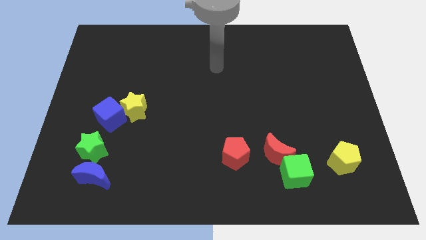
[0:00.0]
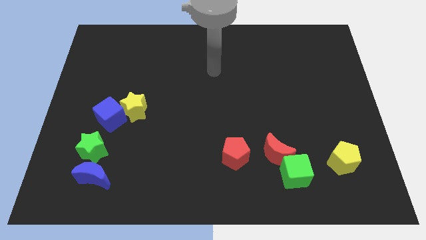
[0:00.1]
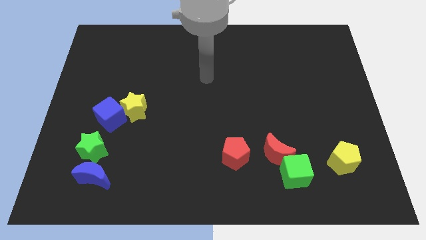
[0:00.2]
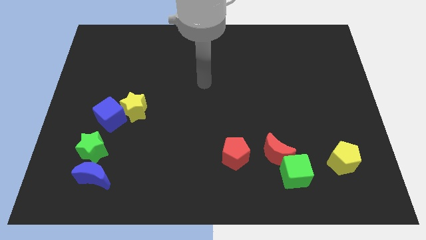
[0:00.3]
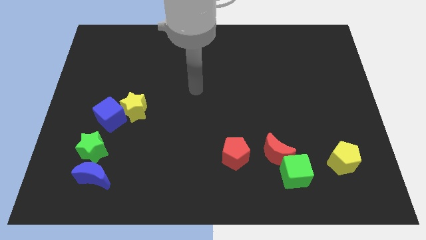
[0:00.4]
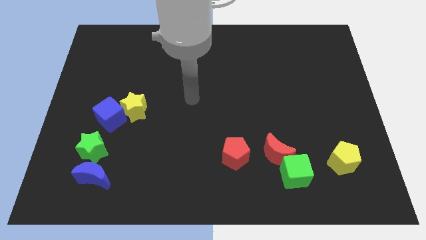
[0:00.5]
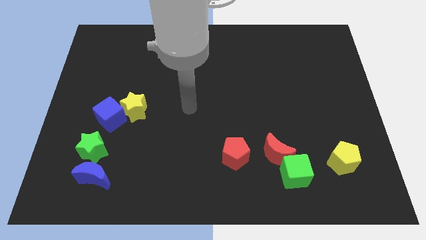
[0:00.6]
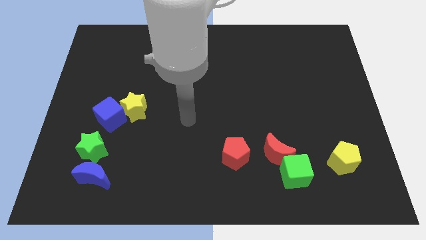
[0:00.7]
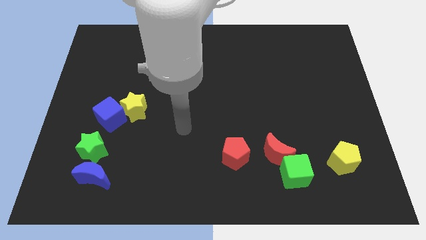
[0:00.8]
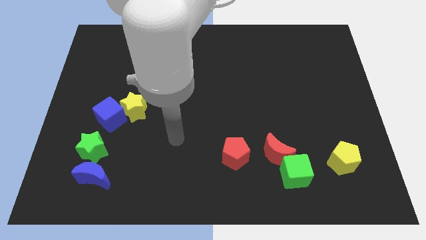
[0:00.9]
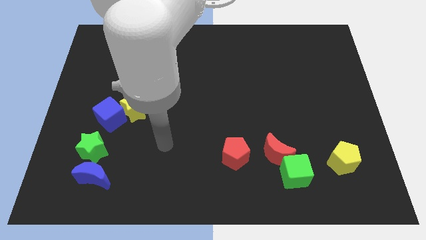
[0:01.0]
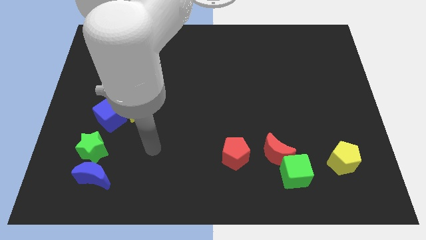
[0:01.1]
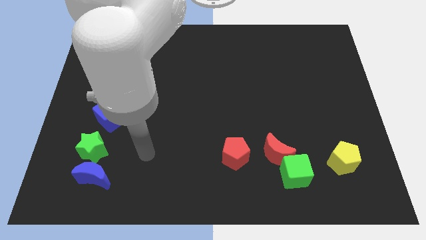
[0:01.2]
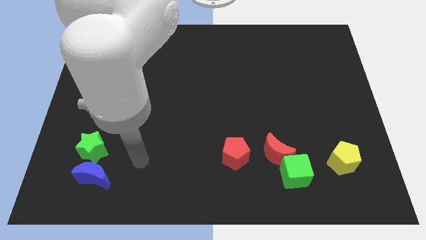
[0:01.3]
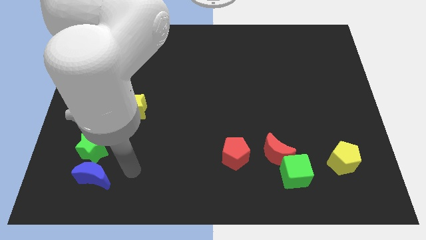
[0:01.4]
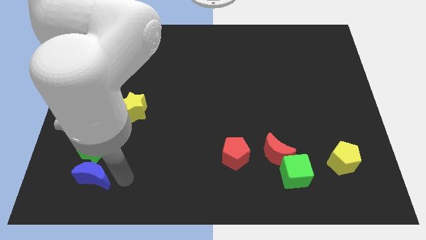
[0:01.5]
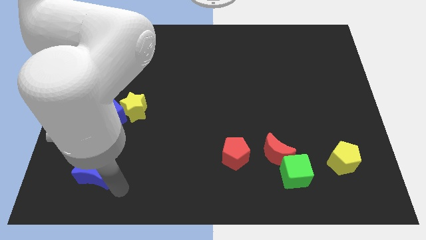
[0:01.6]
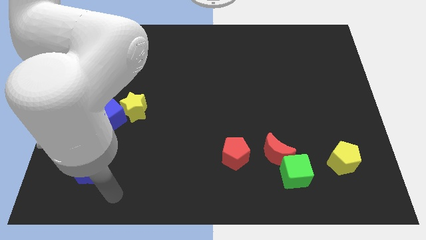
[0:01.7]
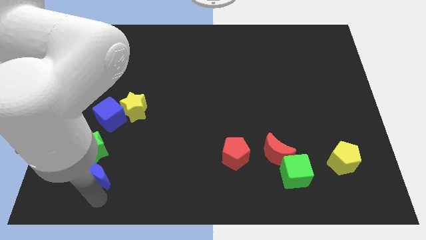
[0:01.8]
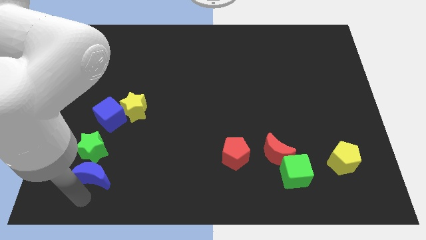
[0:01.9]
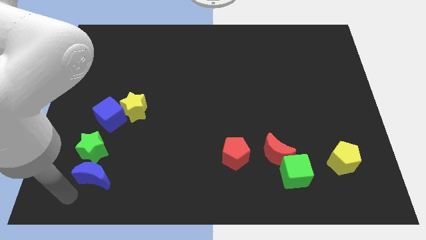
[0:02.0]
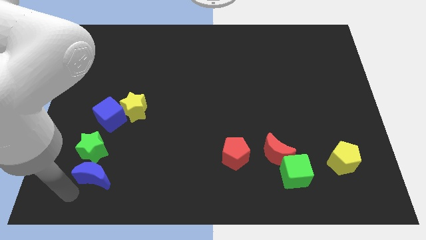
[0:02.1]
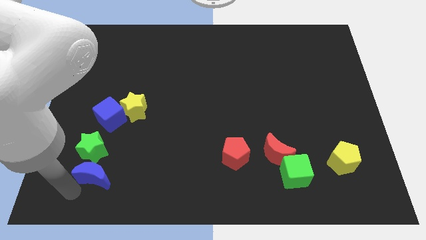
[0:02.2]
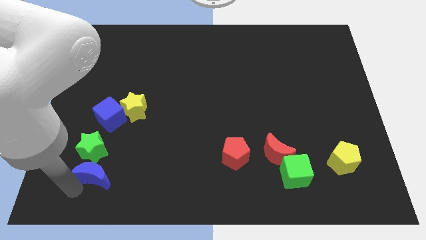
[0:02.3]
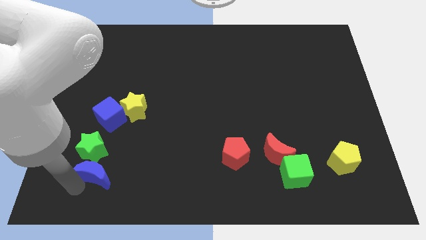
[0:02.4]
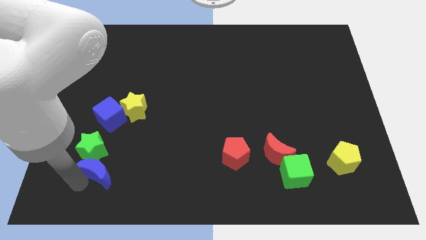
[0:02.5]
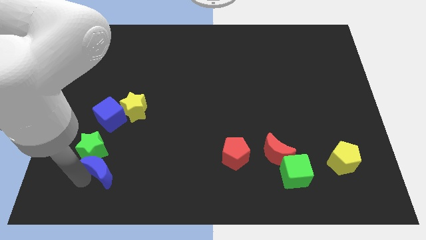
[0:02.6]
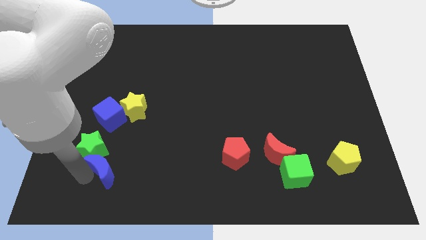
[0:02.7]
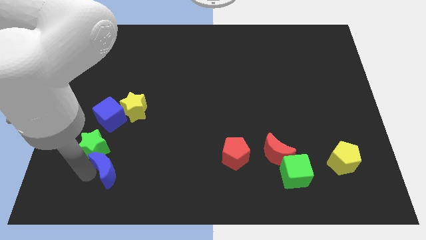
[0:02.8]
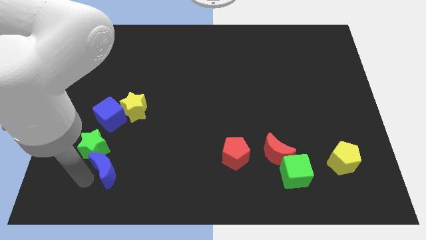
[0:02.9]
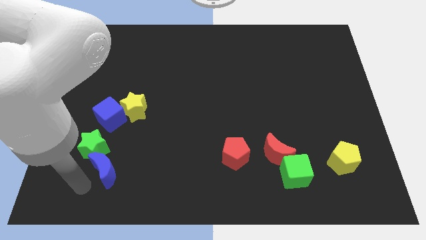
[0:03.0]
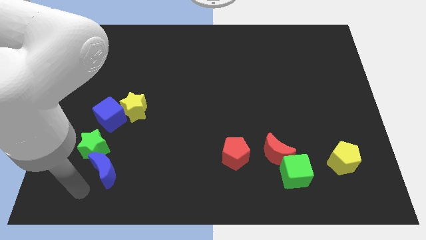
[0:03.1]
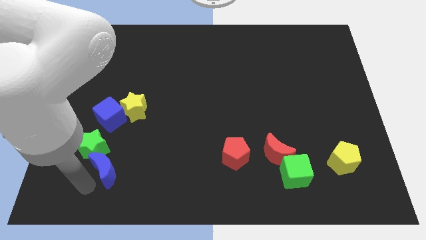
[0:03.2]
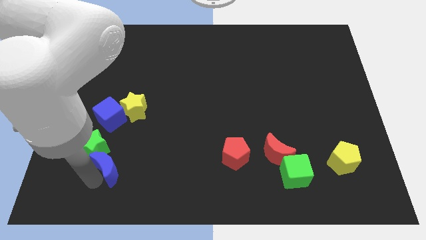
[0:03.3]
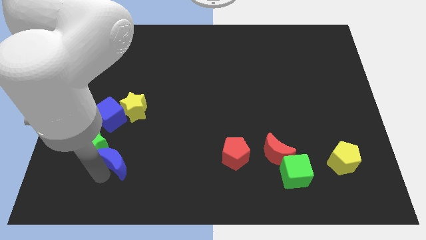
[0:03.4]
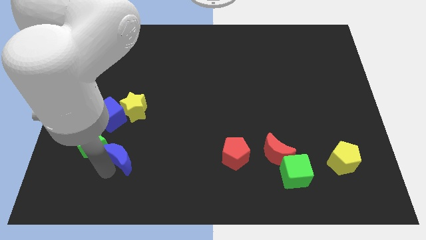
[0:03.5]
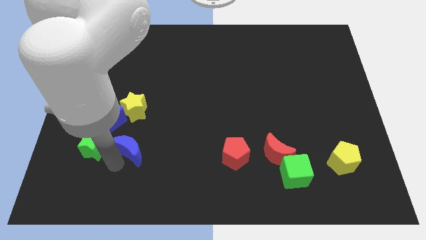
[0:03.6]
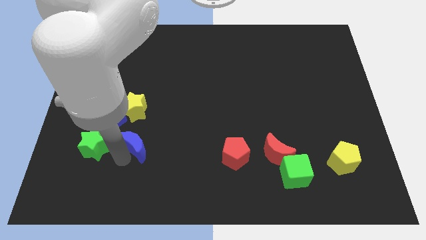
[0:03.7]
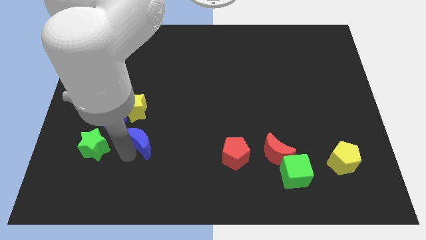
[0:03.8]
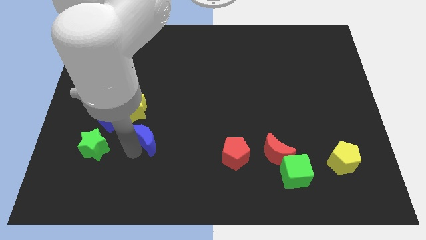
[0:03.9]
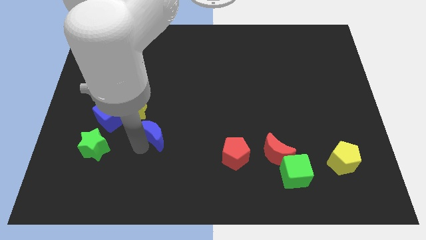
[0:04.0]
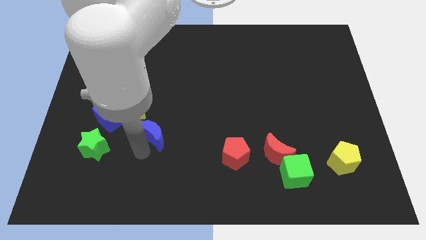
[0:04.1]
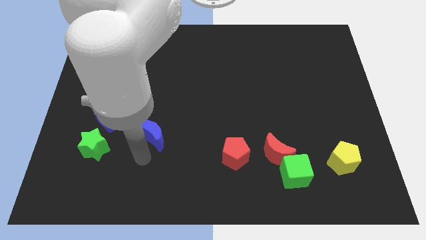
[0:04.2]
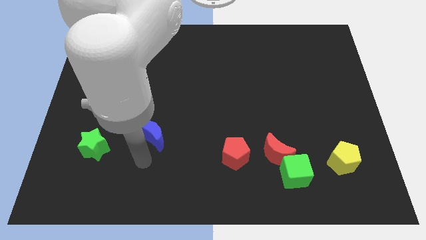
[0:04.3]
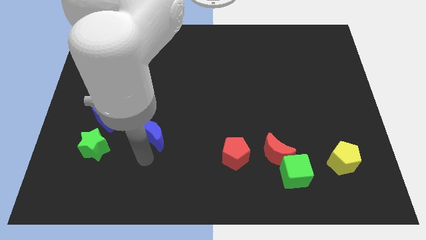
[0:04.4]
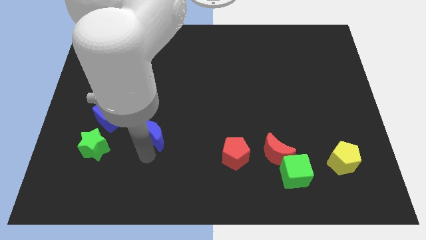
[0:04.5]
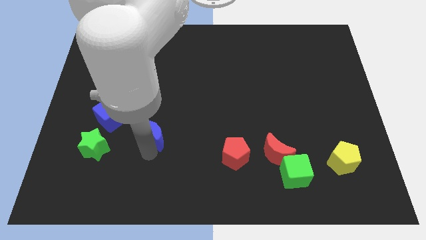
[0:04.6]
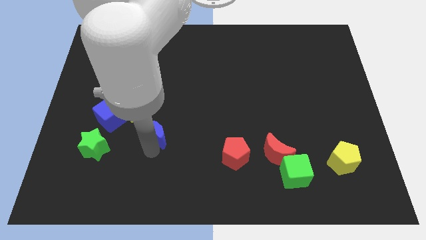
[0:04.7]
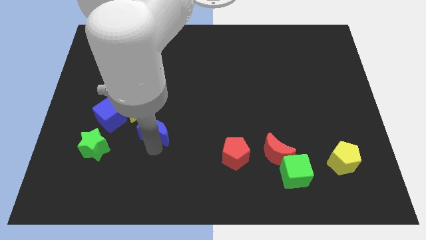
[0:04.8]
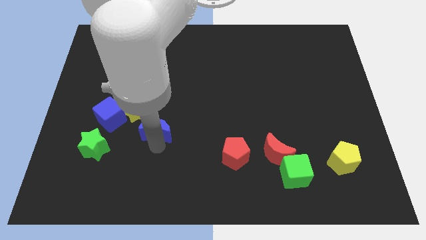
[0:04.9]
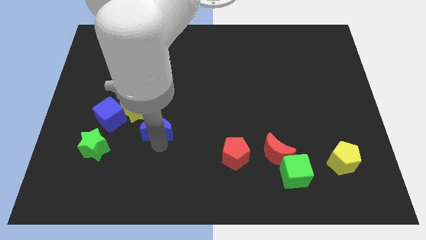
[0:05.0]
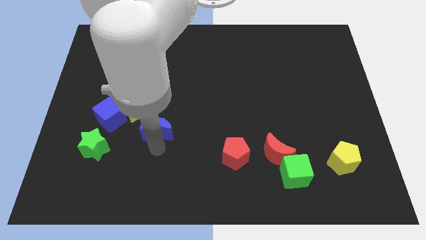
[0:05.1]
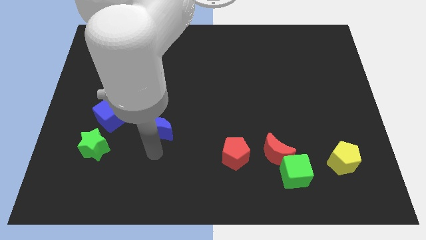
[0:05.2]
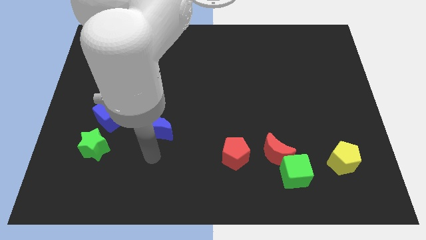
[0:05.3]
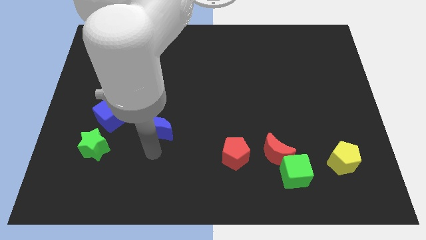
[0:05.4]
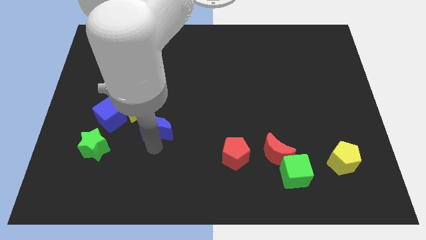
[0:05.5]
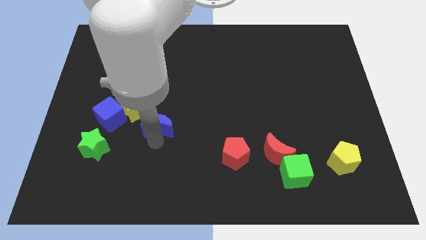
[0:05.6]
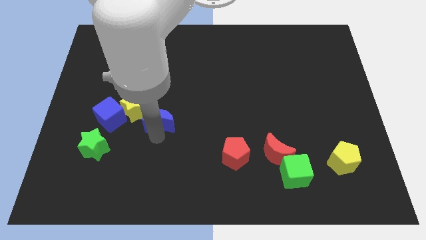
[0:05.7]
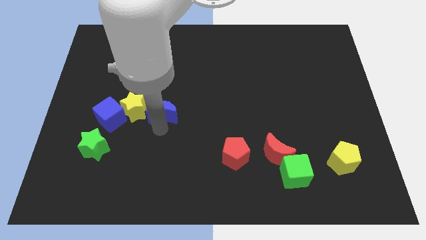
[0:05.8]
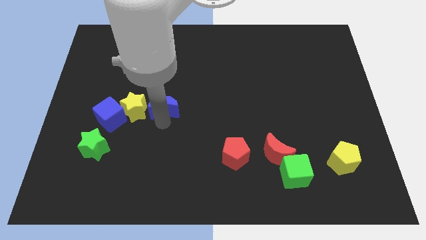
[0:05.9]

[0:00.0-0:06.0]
move the blue moon diagonally up and to the right of the yellow star

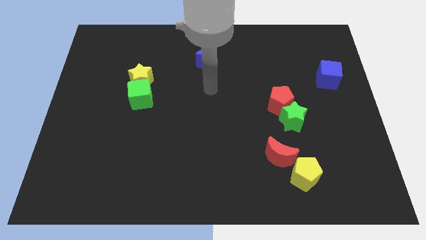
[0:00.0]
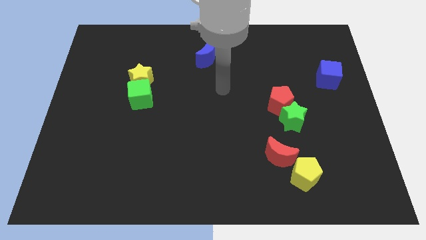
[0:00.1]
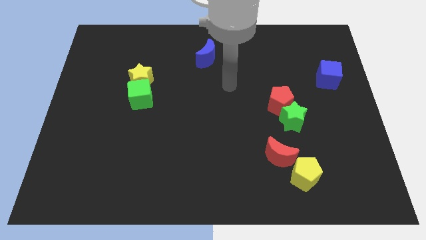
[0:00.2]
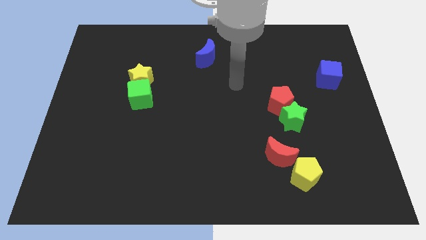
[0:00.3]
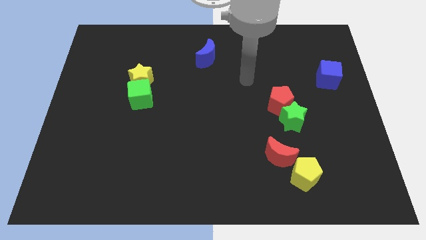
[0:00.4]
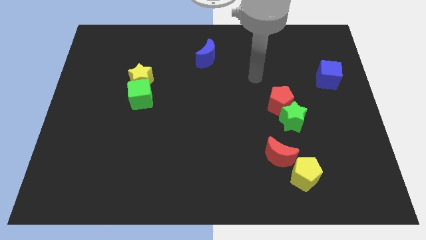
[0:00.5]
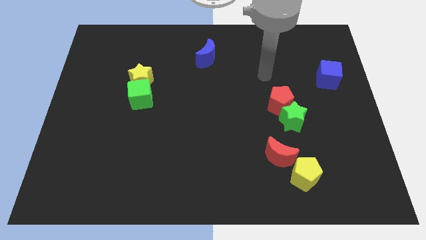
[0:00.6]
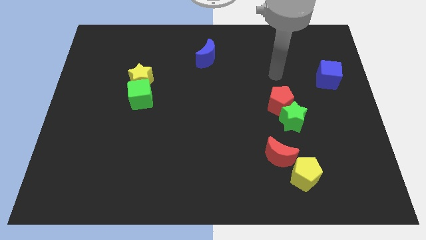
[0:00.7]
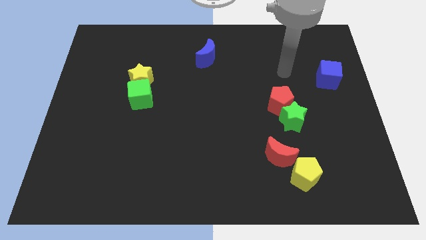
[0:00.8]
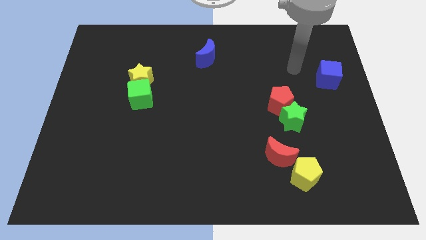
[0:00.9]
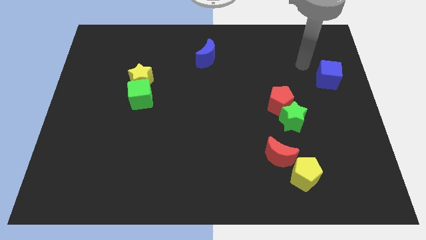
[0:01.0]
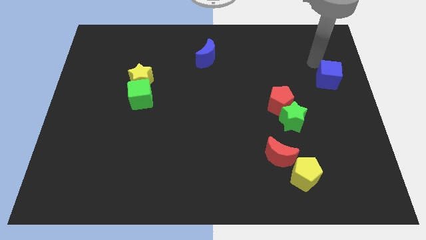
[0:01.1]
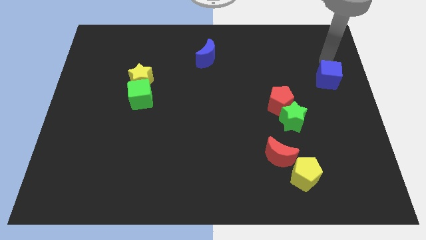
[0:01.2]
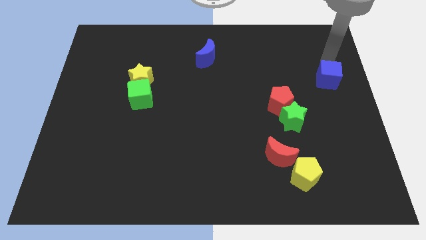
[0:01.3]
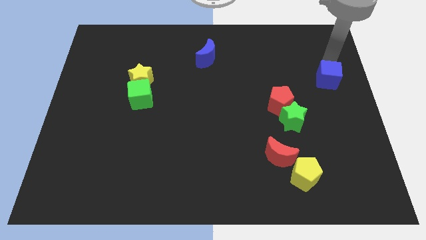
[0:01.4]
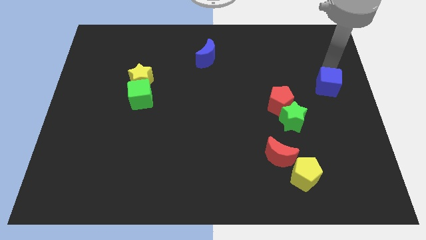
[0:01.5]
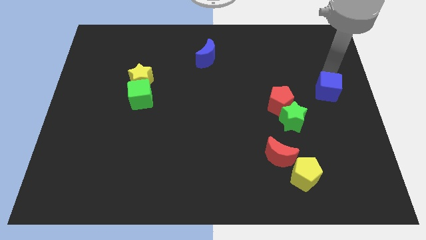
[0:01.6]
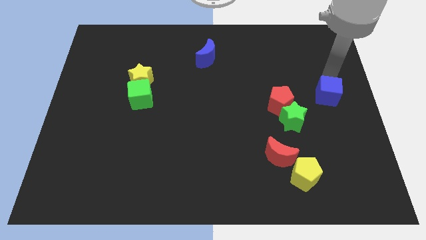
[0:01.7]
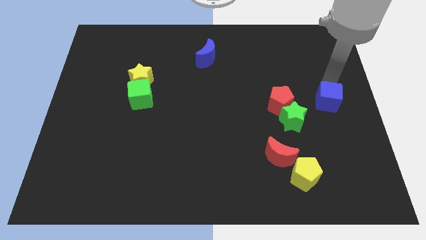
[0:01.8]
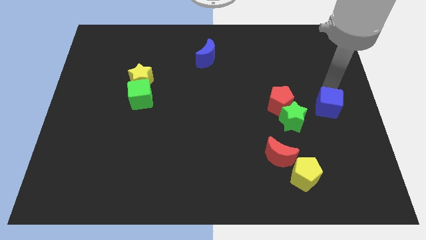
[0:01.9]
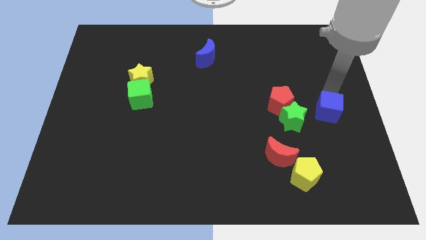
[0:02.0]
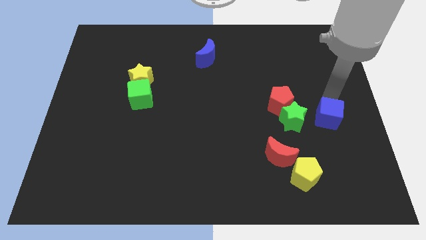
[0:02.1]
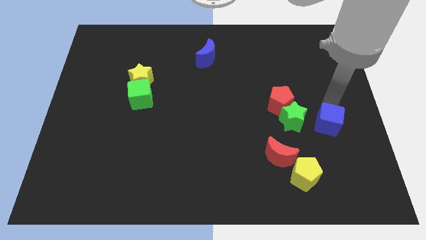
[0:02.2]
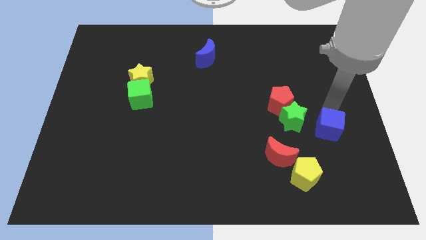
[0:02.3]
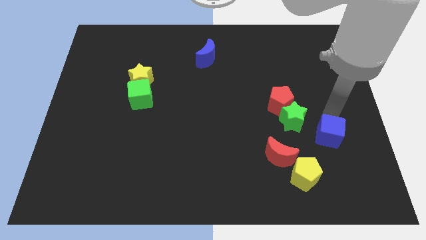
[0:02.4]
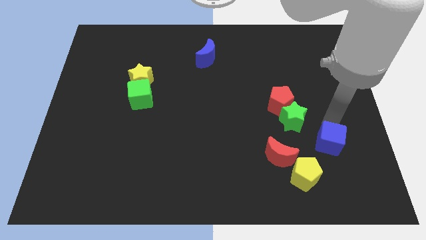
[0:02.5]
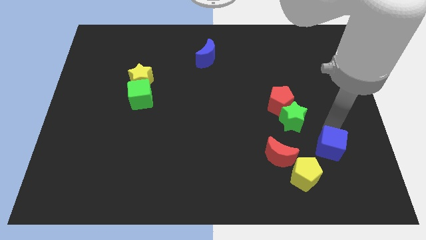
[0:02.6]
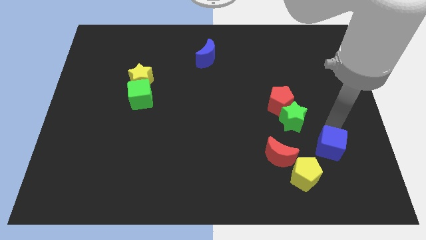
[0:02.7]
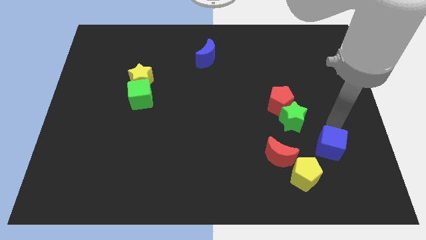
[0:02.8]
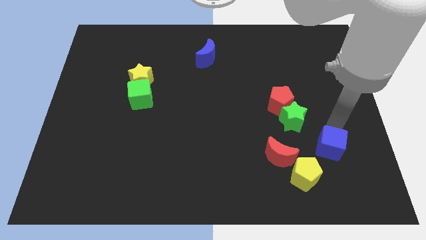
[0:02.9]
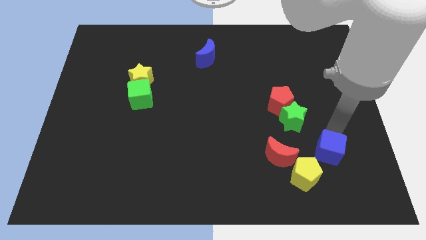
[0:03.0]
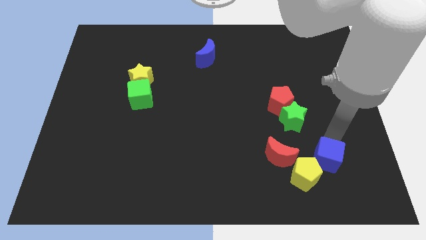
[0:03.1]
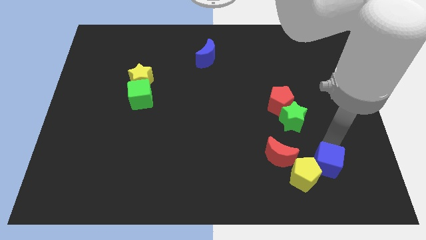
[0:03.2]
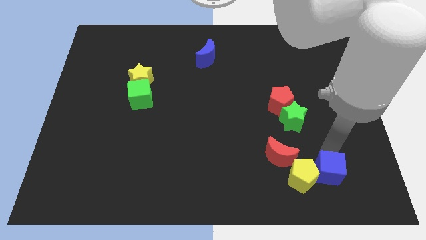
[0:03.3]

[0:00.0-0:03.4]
slide the blue cube to the bottom right of the red moon
